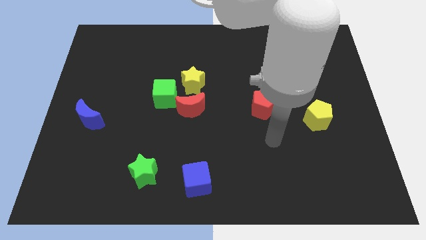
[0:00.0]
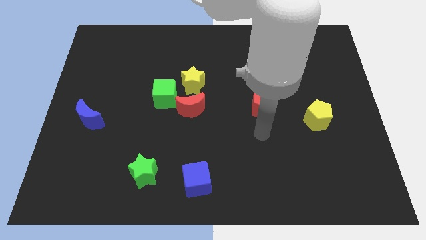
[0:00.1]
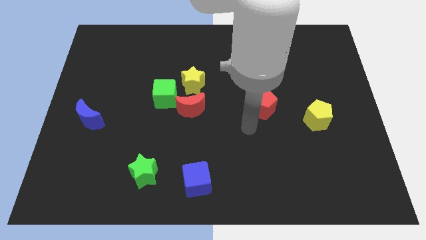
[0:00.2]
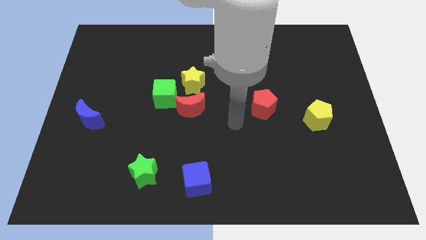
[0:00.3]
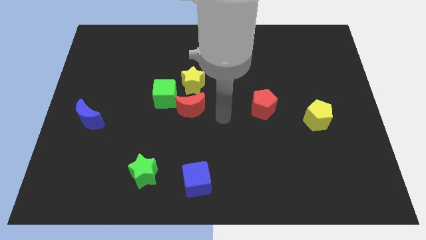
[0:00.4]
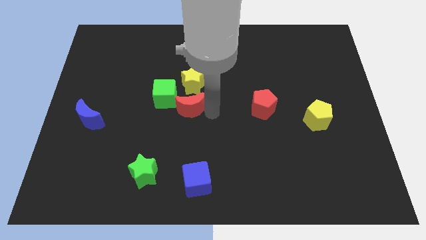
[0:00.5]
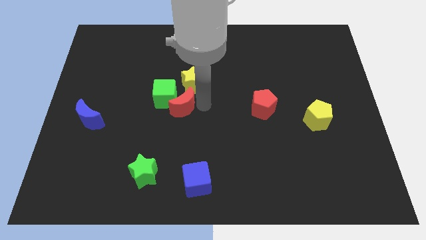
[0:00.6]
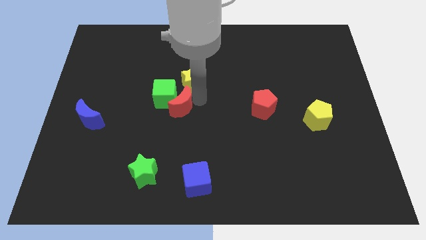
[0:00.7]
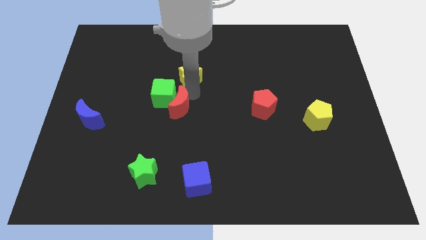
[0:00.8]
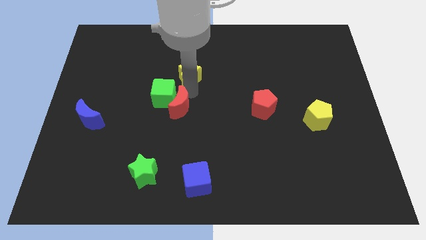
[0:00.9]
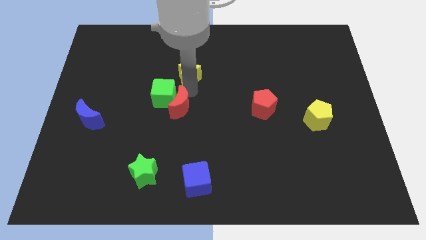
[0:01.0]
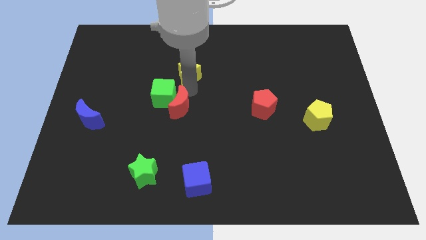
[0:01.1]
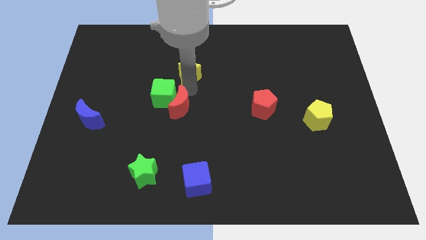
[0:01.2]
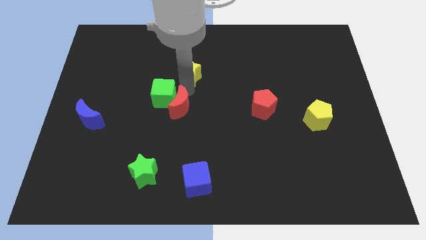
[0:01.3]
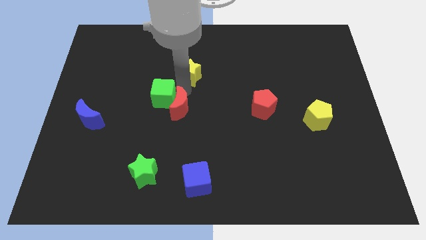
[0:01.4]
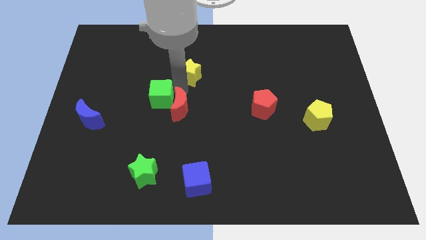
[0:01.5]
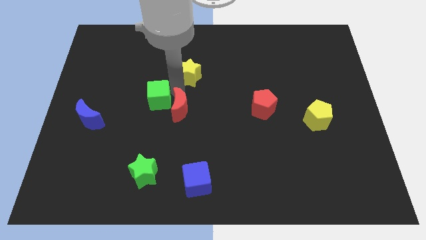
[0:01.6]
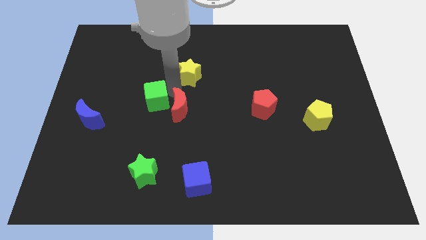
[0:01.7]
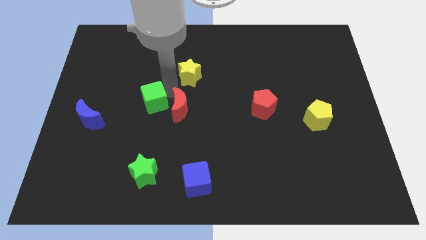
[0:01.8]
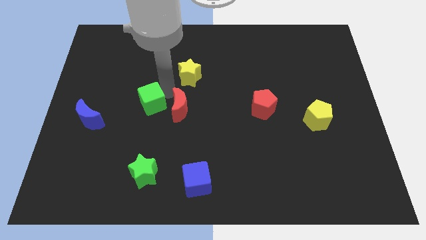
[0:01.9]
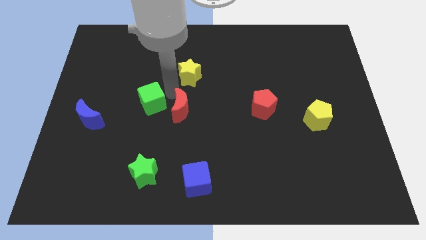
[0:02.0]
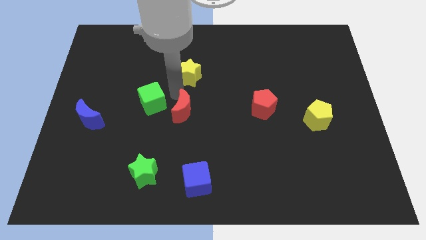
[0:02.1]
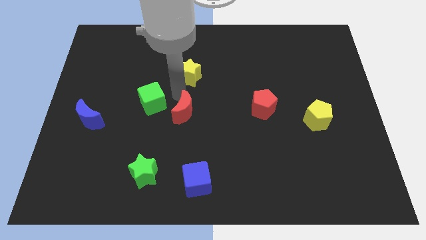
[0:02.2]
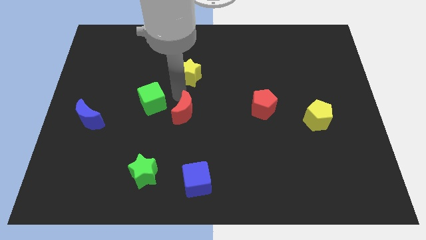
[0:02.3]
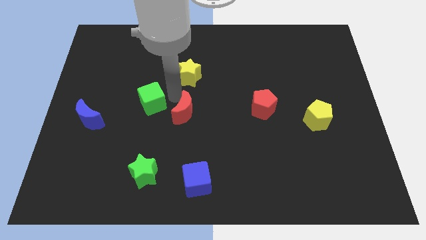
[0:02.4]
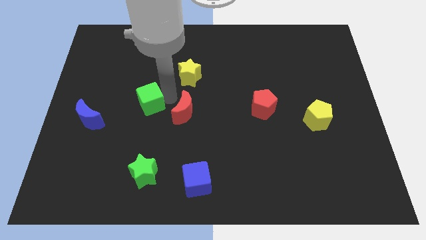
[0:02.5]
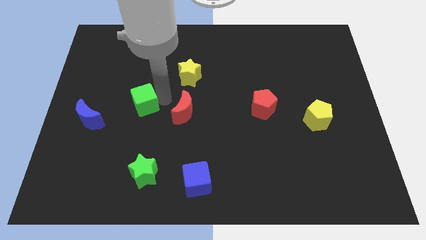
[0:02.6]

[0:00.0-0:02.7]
move the green cube away from the red moon and yellow star

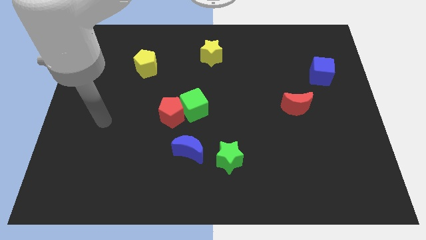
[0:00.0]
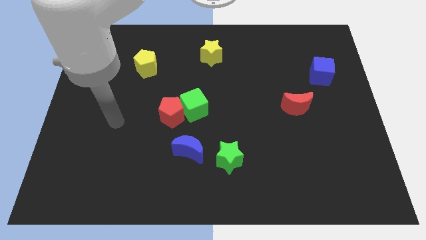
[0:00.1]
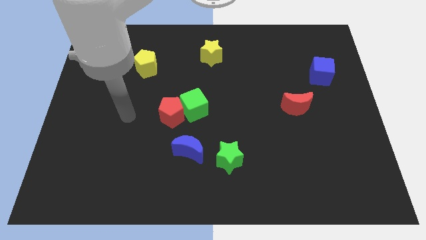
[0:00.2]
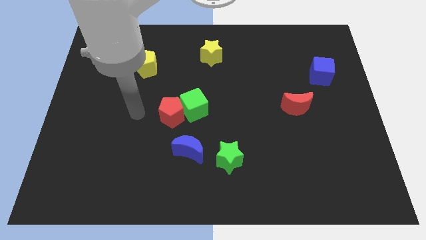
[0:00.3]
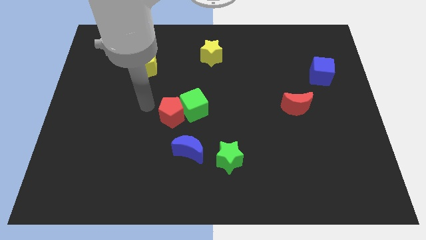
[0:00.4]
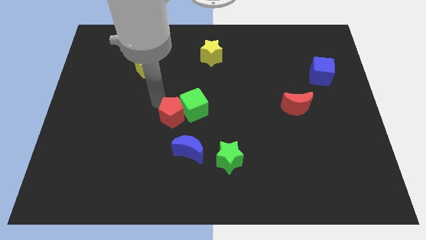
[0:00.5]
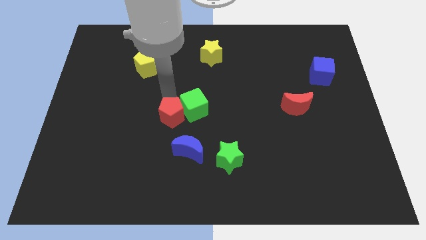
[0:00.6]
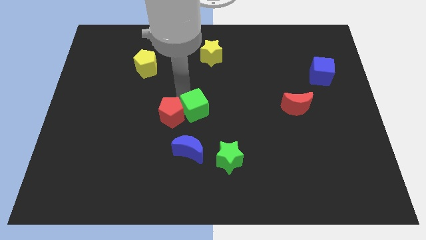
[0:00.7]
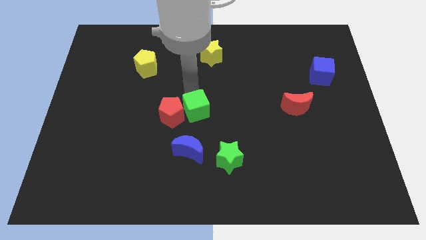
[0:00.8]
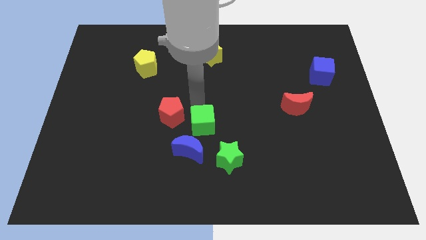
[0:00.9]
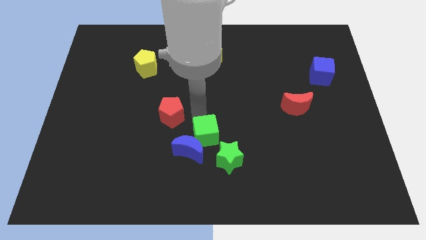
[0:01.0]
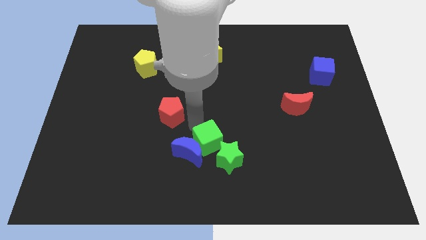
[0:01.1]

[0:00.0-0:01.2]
separate the red pentagon from the green cube

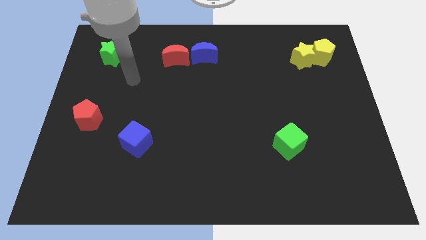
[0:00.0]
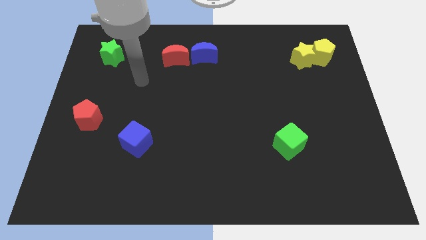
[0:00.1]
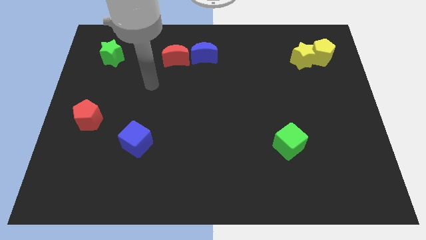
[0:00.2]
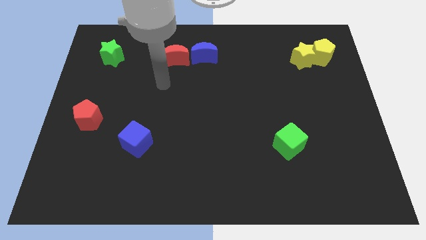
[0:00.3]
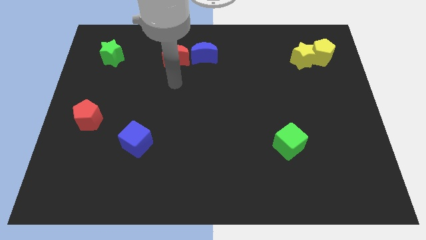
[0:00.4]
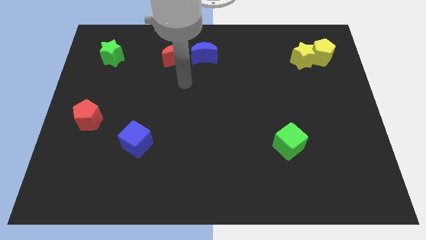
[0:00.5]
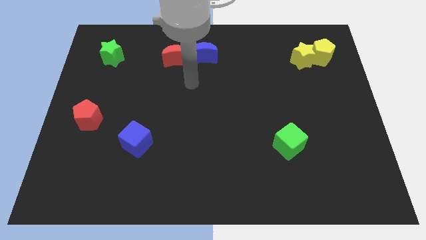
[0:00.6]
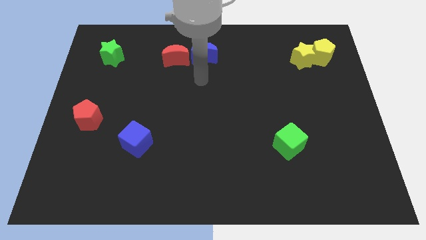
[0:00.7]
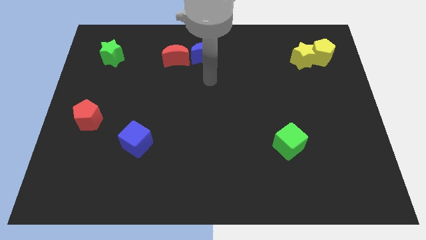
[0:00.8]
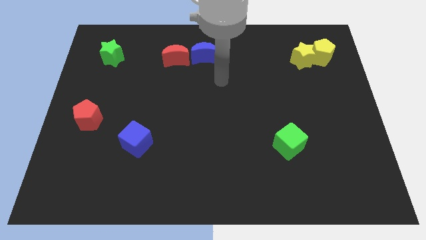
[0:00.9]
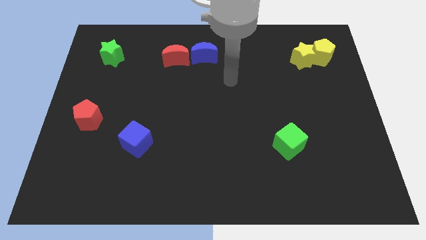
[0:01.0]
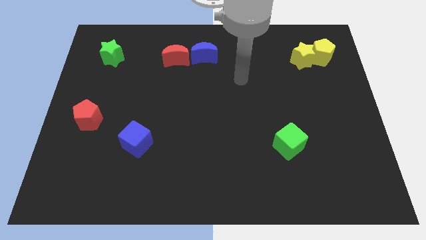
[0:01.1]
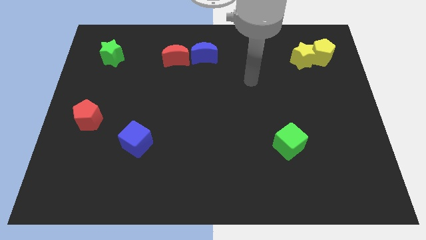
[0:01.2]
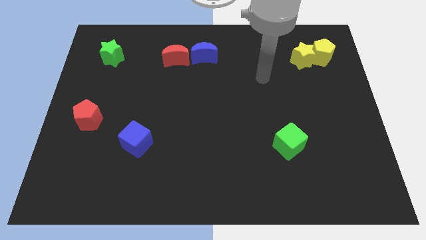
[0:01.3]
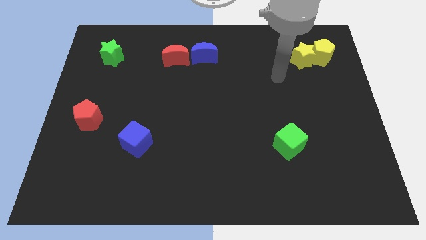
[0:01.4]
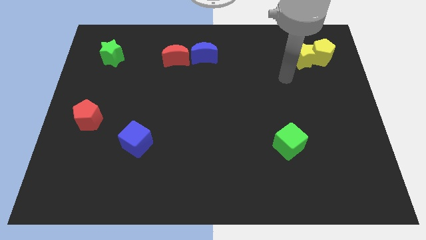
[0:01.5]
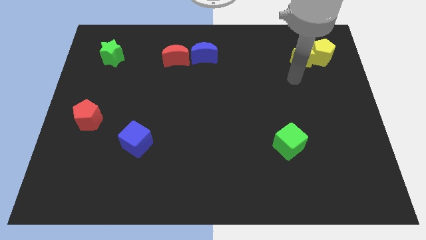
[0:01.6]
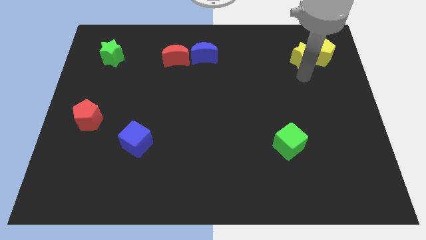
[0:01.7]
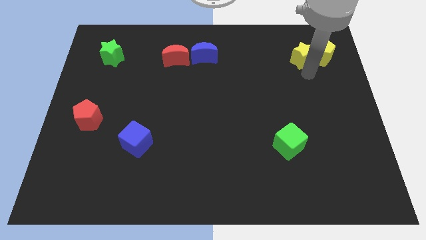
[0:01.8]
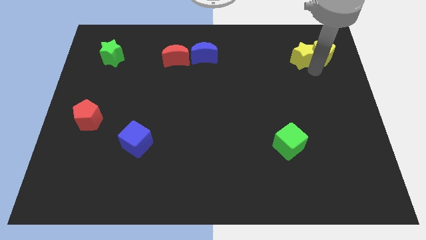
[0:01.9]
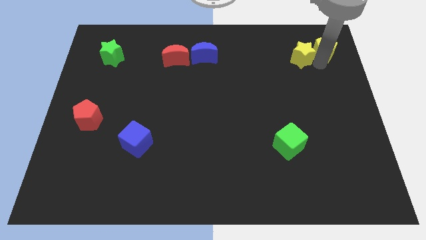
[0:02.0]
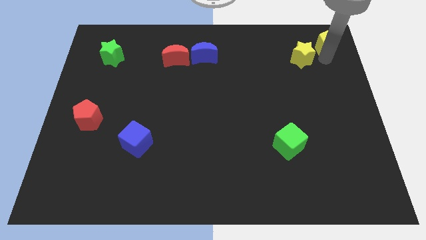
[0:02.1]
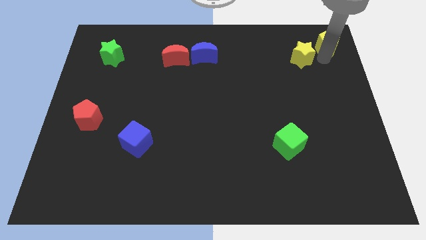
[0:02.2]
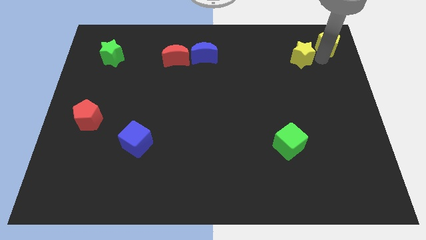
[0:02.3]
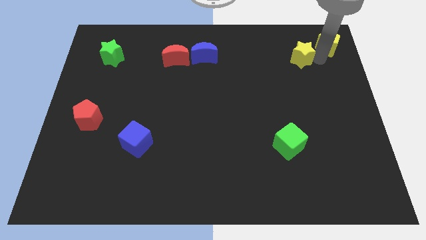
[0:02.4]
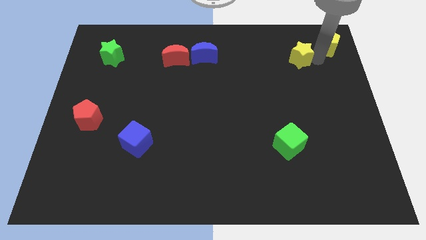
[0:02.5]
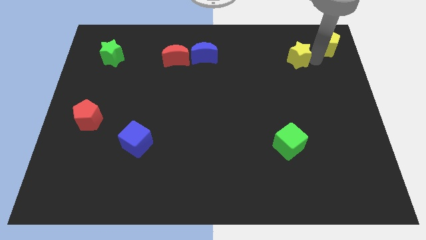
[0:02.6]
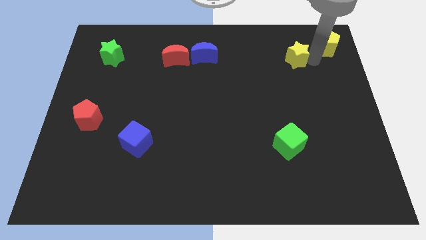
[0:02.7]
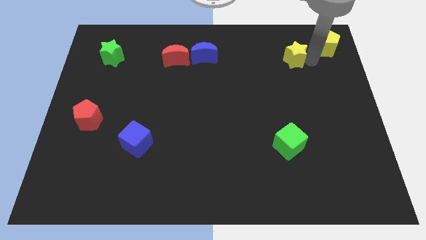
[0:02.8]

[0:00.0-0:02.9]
pull the yellow star apart from the yellow pentagon

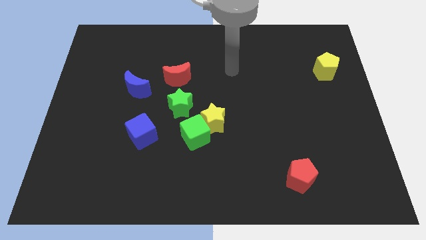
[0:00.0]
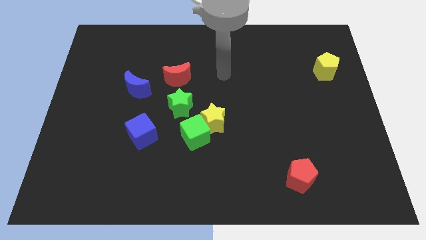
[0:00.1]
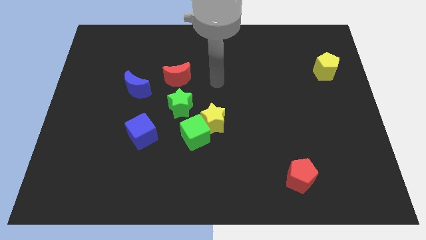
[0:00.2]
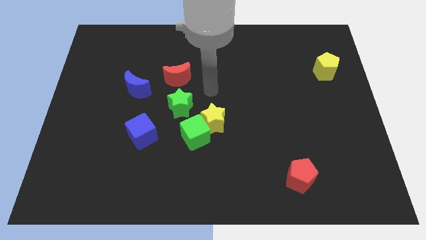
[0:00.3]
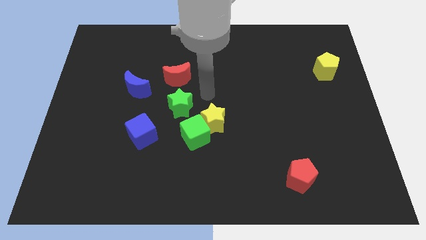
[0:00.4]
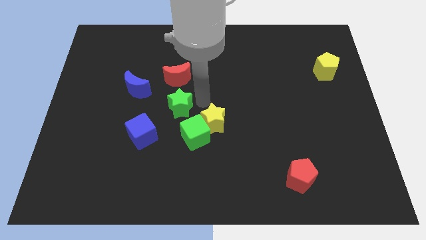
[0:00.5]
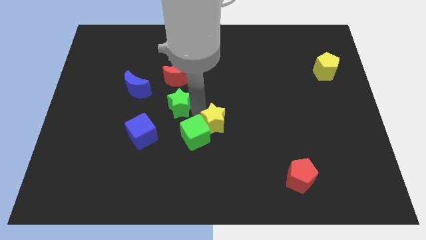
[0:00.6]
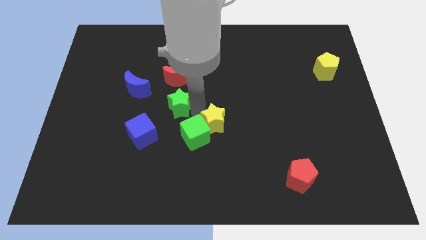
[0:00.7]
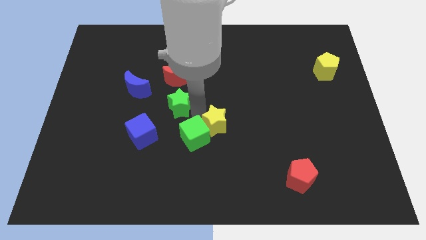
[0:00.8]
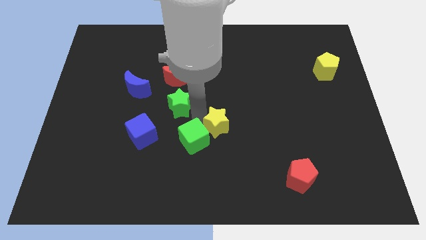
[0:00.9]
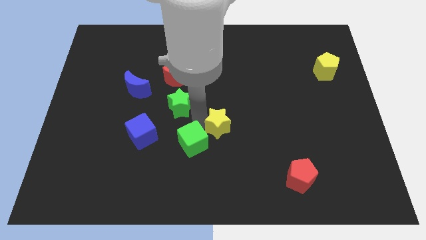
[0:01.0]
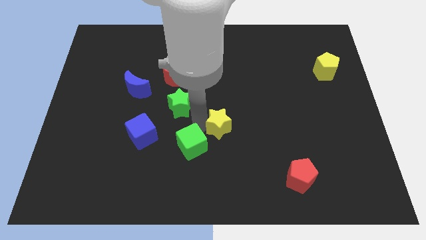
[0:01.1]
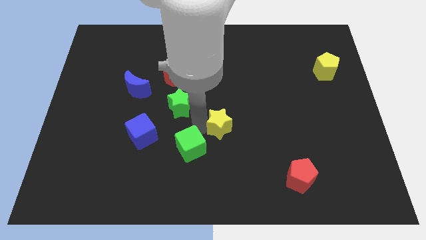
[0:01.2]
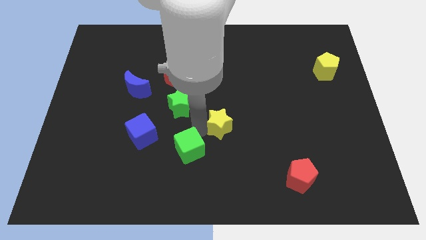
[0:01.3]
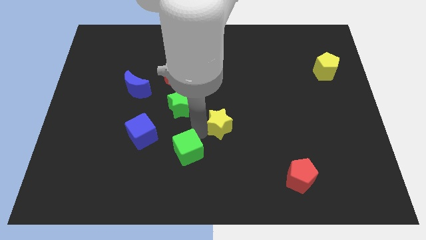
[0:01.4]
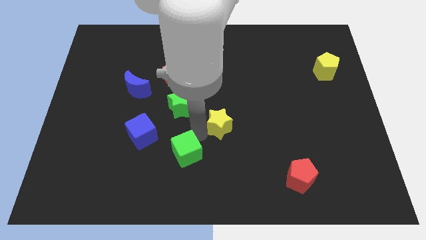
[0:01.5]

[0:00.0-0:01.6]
move the green cube away from the yellow star and green star

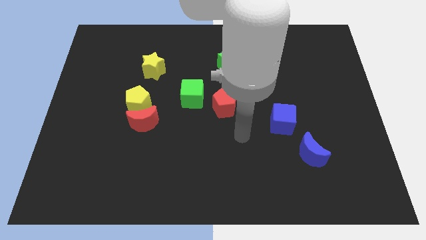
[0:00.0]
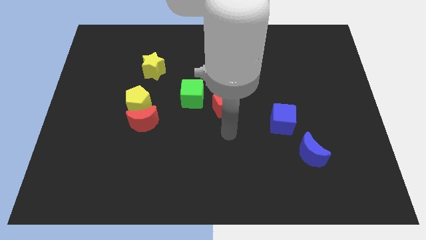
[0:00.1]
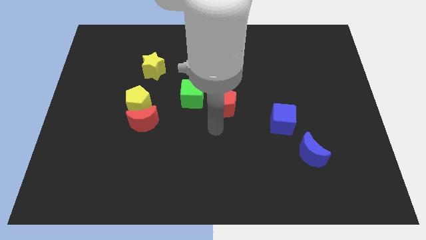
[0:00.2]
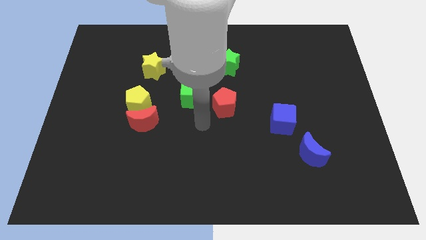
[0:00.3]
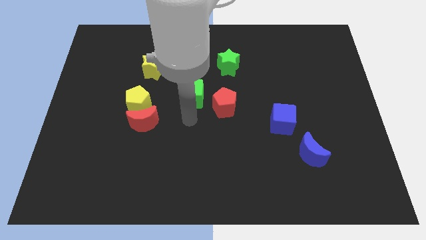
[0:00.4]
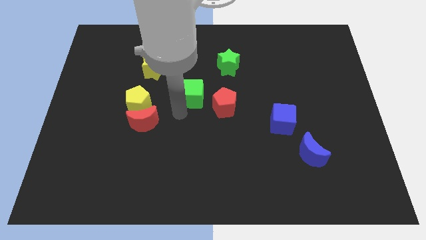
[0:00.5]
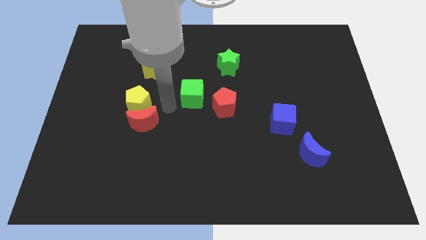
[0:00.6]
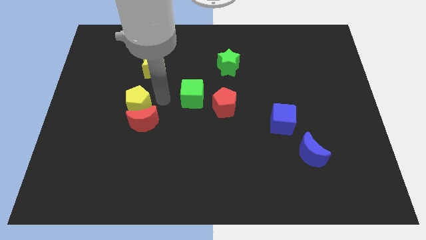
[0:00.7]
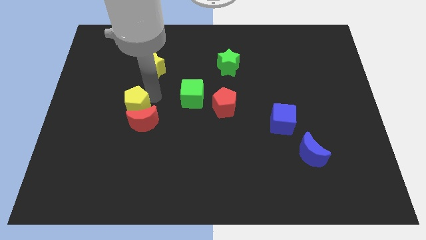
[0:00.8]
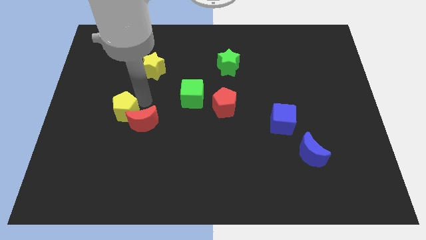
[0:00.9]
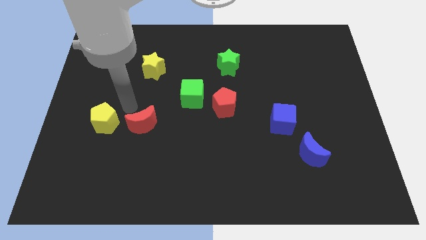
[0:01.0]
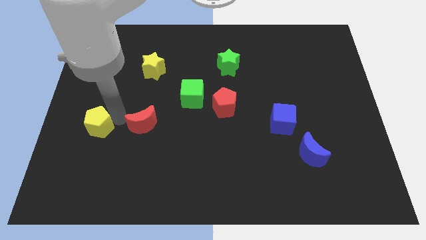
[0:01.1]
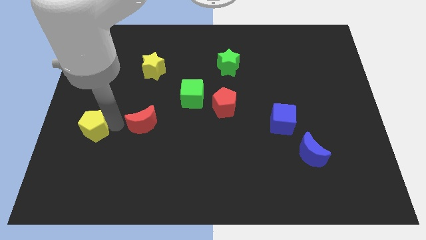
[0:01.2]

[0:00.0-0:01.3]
pull the red moon apart from the yellow pentagon
